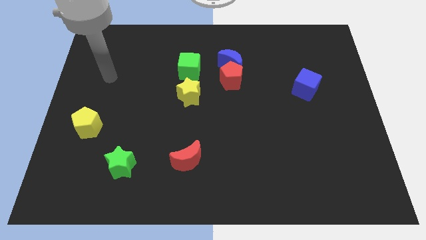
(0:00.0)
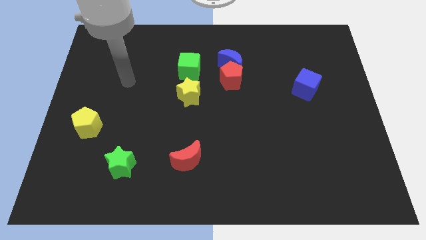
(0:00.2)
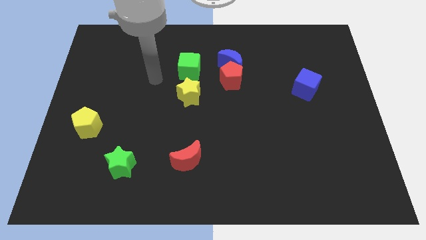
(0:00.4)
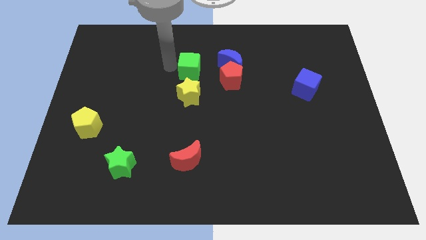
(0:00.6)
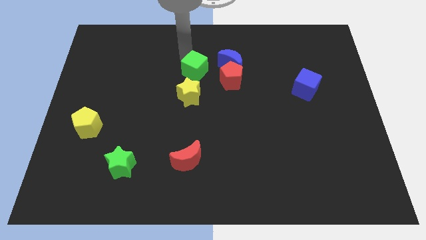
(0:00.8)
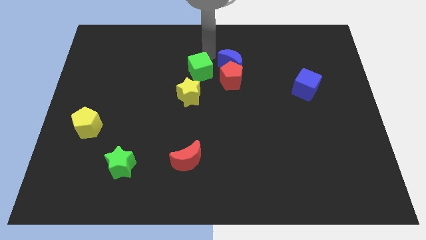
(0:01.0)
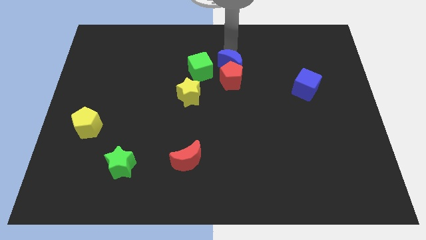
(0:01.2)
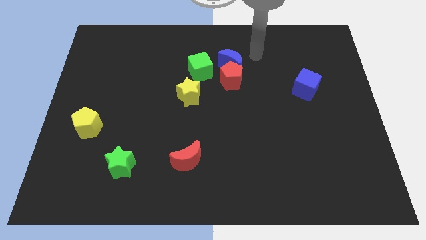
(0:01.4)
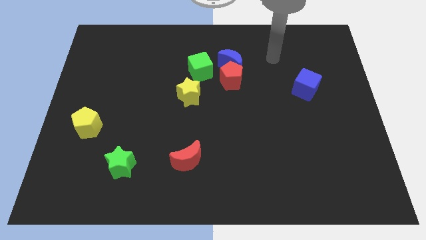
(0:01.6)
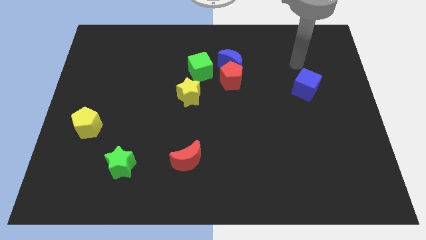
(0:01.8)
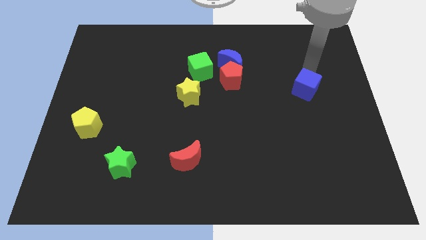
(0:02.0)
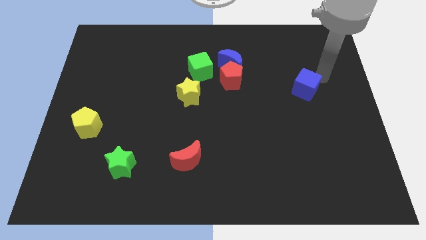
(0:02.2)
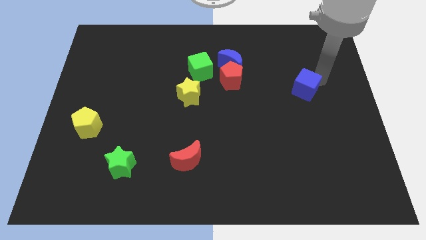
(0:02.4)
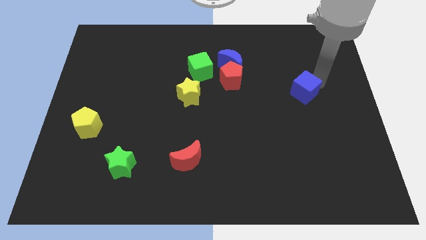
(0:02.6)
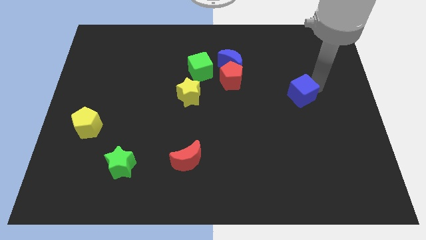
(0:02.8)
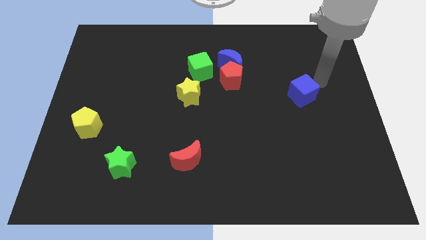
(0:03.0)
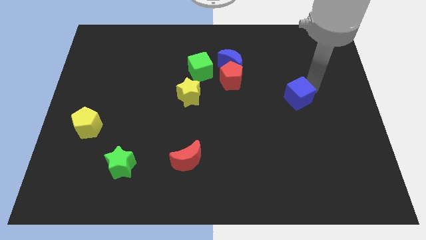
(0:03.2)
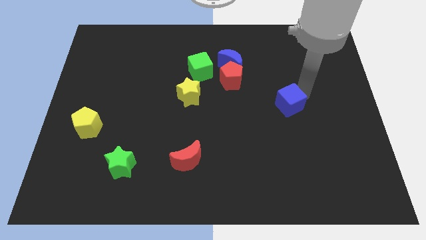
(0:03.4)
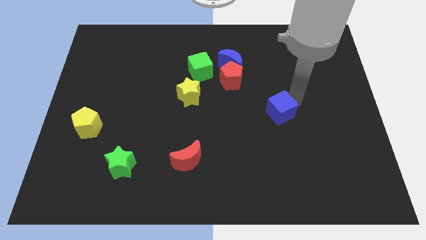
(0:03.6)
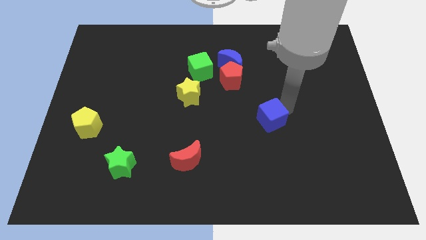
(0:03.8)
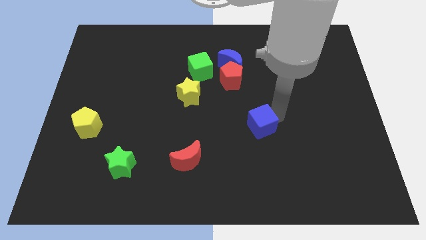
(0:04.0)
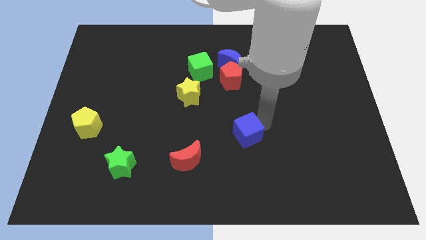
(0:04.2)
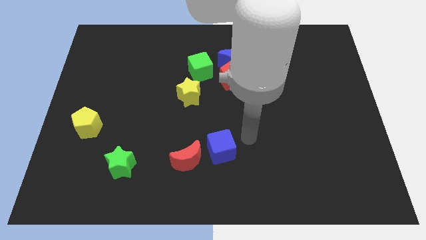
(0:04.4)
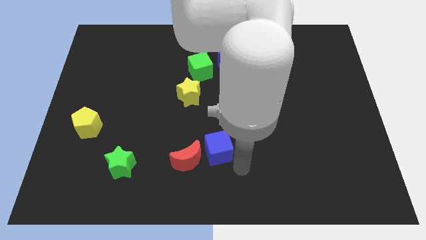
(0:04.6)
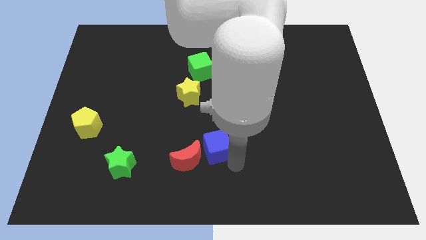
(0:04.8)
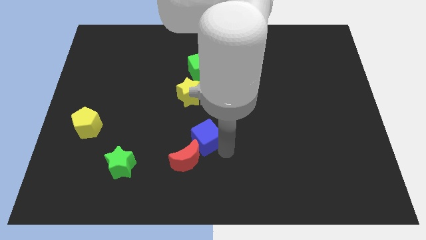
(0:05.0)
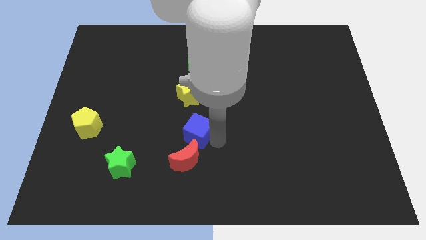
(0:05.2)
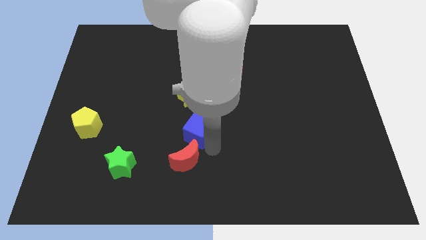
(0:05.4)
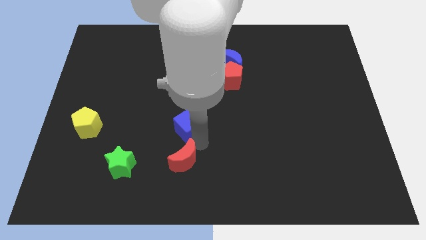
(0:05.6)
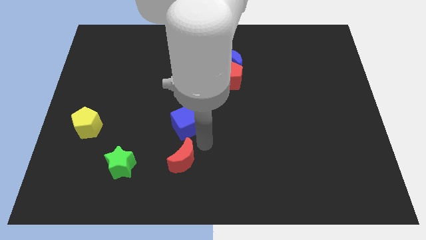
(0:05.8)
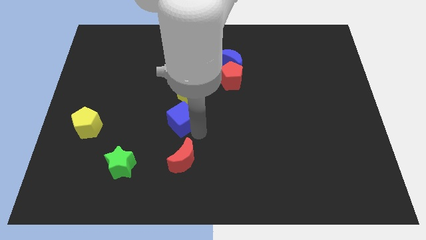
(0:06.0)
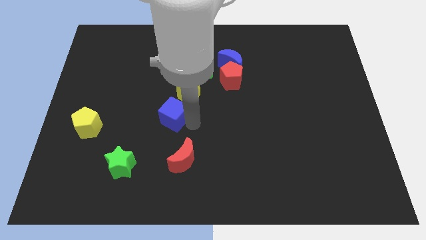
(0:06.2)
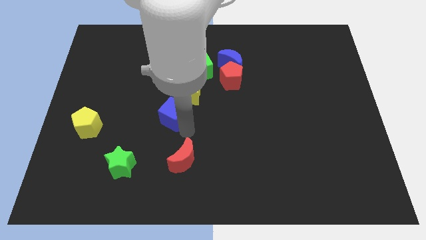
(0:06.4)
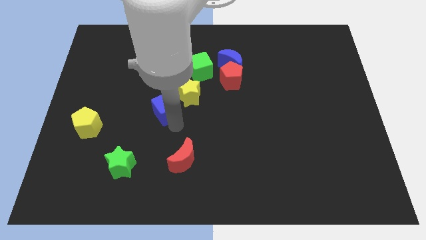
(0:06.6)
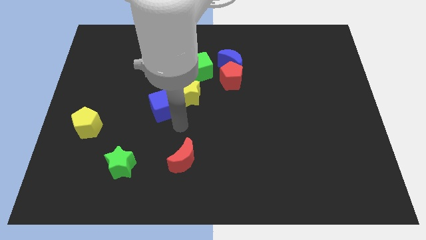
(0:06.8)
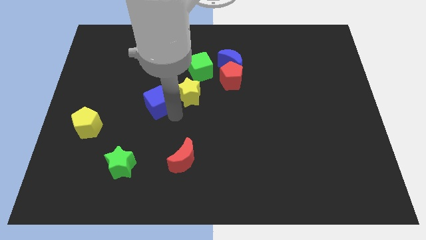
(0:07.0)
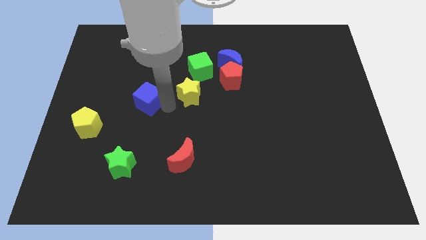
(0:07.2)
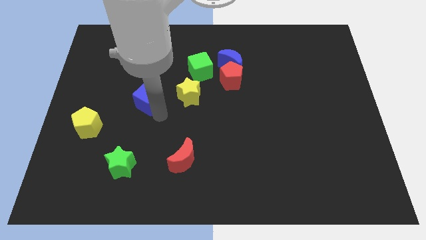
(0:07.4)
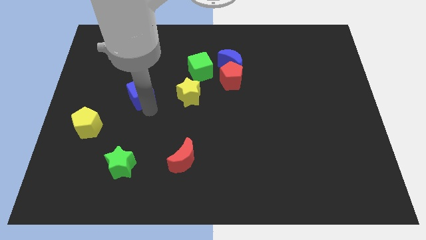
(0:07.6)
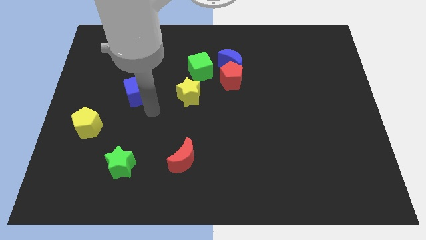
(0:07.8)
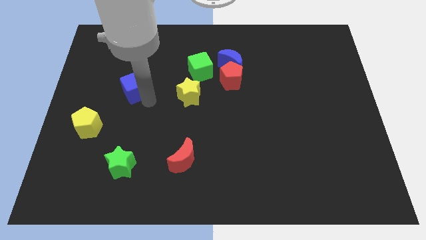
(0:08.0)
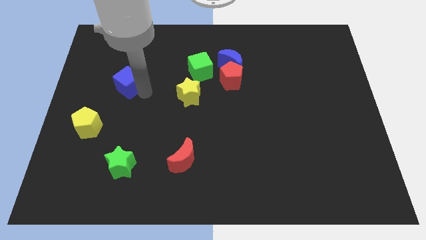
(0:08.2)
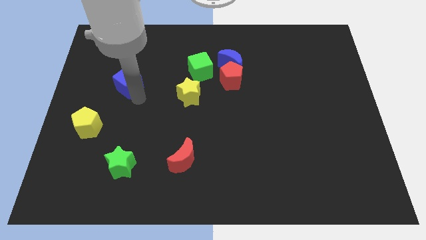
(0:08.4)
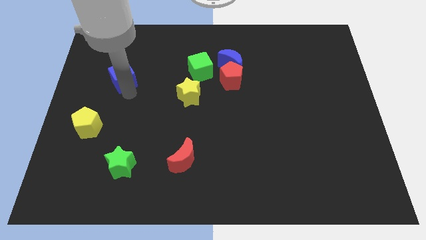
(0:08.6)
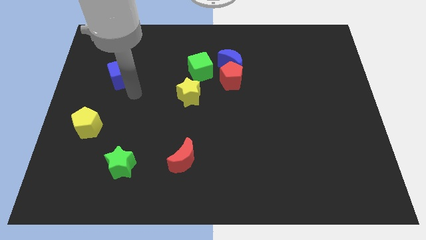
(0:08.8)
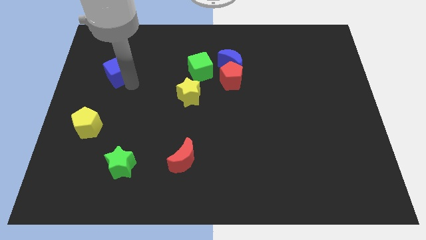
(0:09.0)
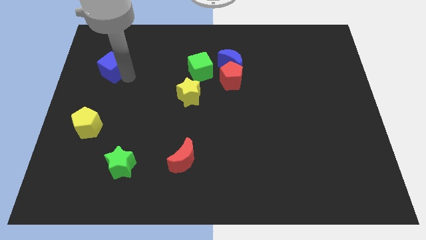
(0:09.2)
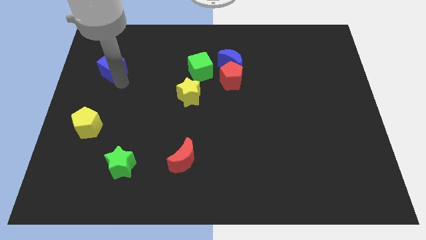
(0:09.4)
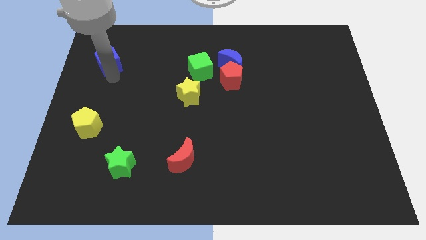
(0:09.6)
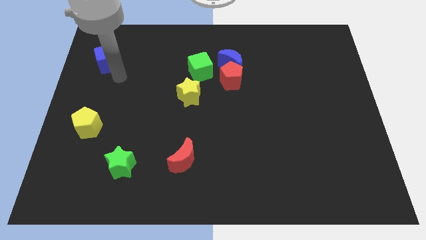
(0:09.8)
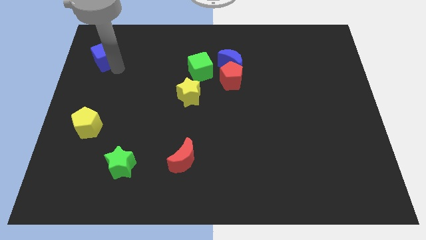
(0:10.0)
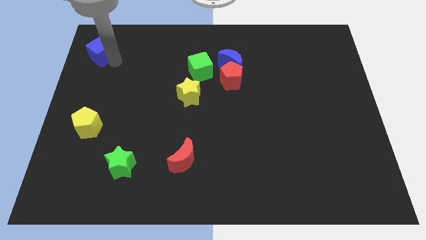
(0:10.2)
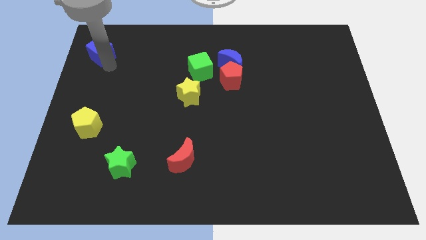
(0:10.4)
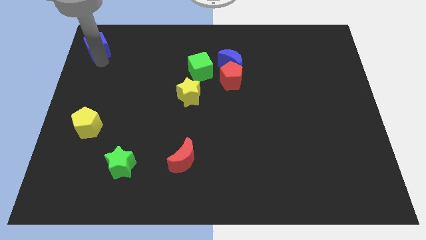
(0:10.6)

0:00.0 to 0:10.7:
slide the blue cube to the upper left corner

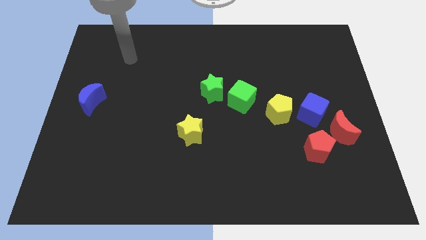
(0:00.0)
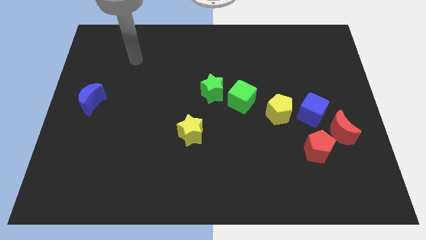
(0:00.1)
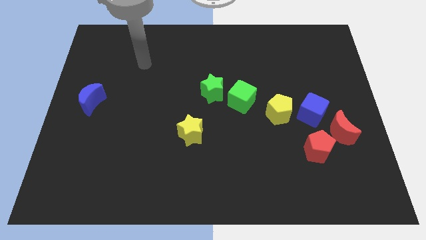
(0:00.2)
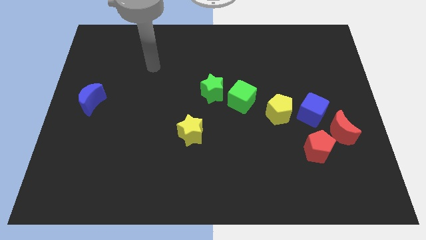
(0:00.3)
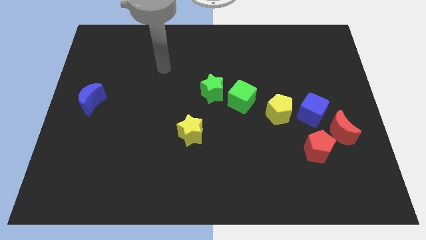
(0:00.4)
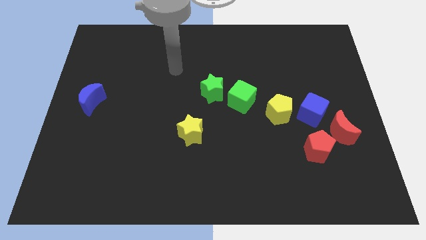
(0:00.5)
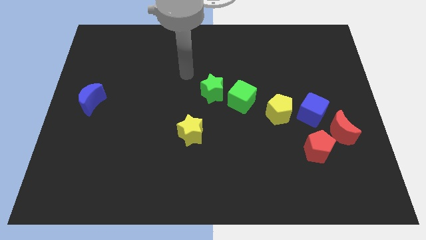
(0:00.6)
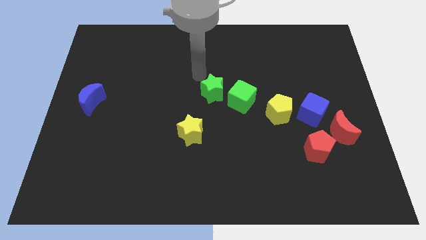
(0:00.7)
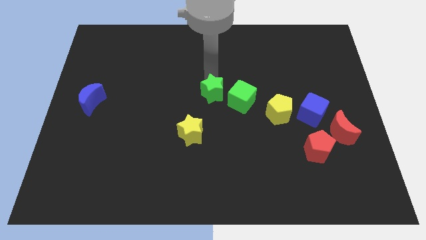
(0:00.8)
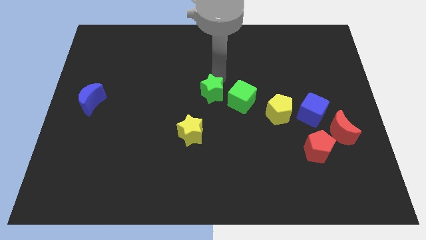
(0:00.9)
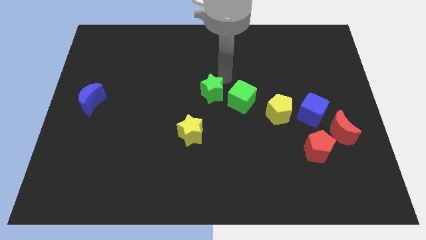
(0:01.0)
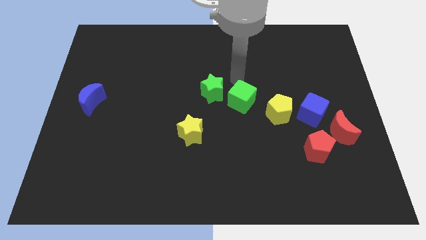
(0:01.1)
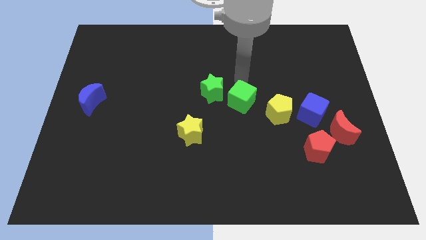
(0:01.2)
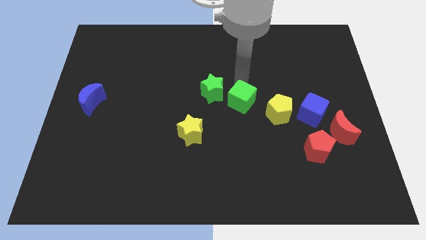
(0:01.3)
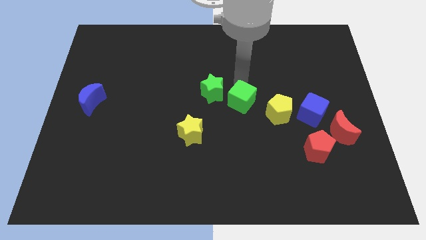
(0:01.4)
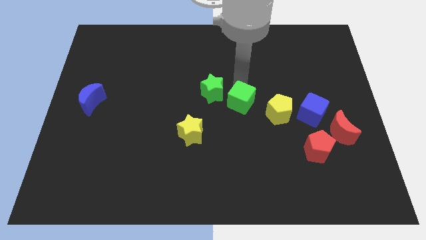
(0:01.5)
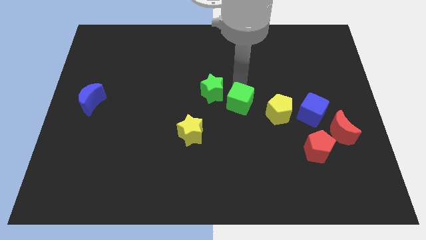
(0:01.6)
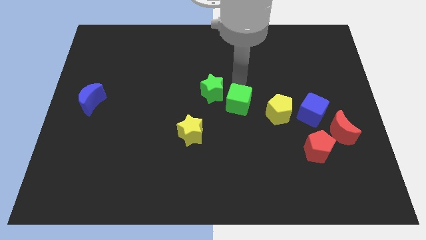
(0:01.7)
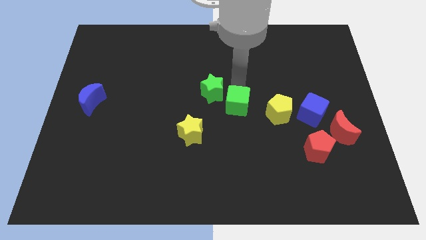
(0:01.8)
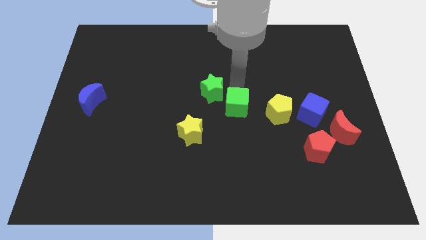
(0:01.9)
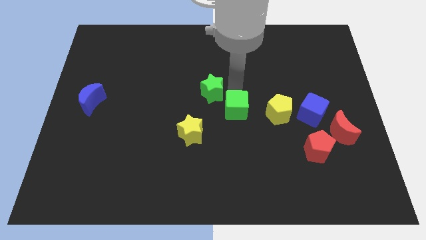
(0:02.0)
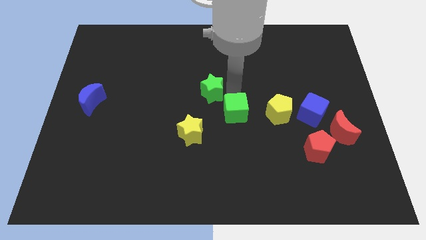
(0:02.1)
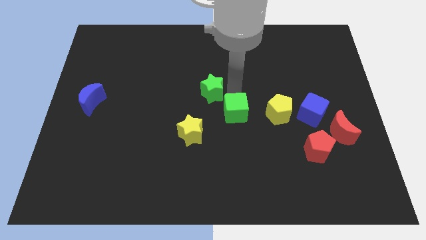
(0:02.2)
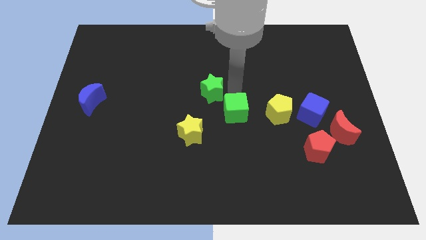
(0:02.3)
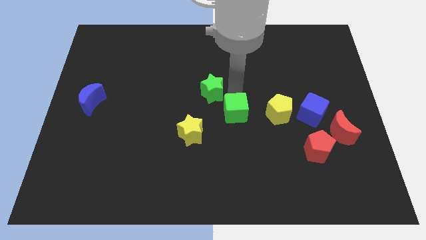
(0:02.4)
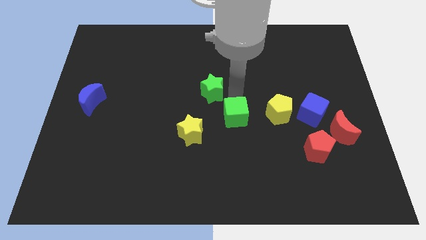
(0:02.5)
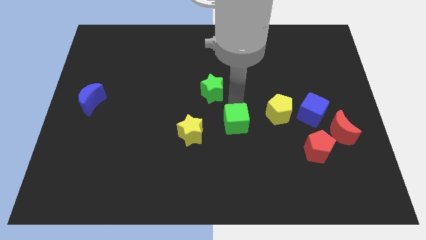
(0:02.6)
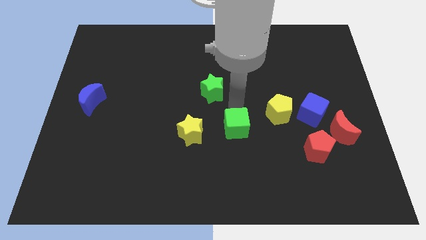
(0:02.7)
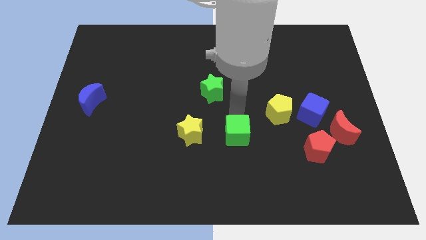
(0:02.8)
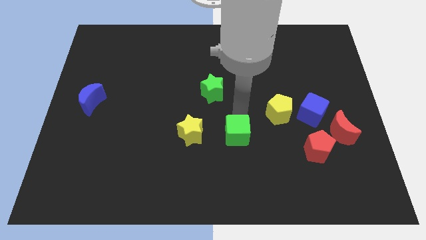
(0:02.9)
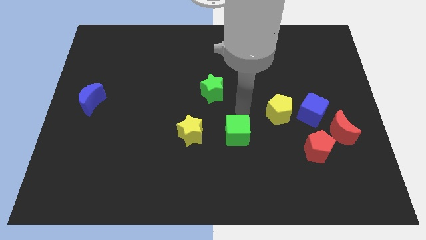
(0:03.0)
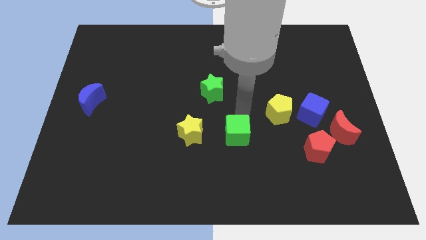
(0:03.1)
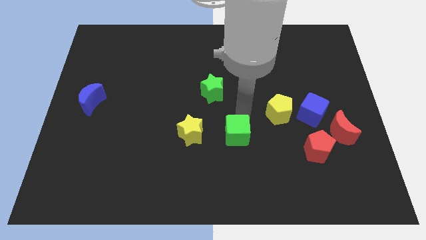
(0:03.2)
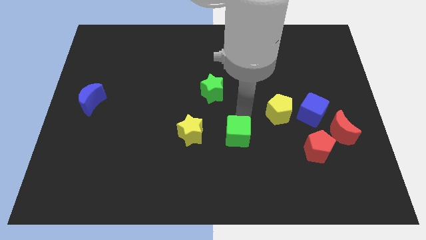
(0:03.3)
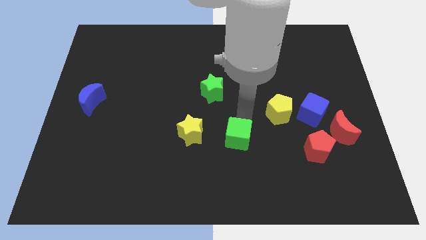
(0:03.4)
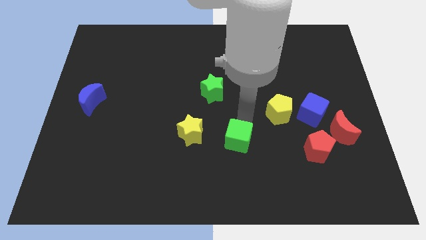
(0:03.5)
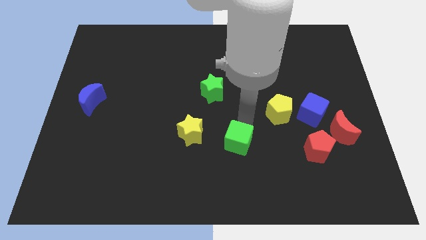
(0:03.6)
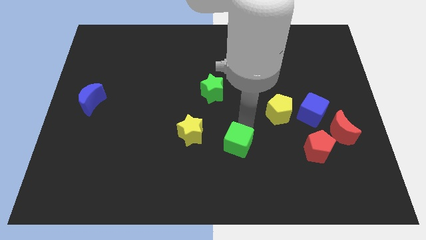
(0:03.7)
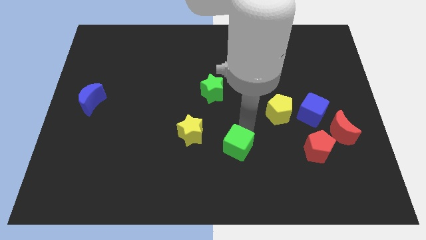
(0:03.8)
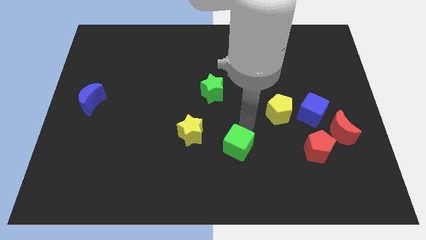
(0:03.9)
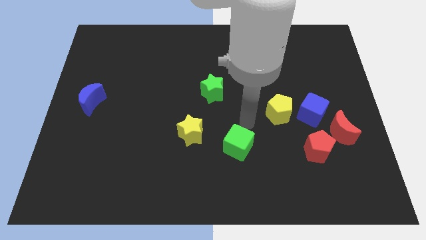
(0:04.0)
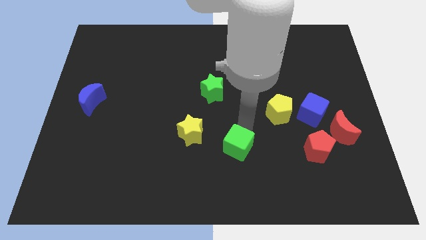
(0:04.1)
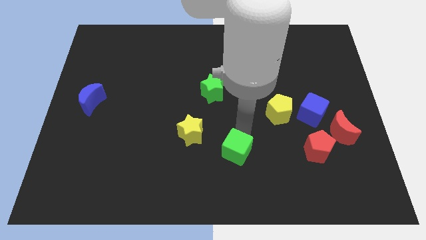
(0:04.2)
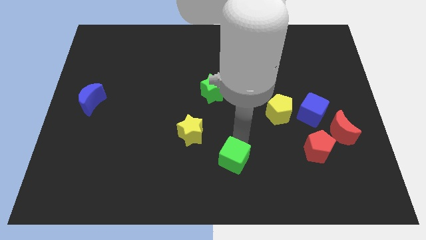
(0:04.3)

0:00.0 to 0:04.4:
move the green cube to the bottom
